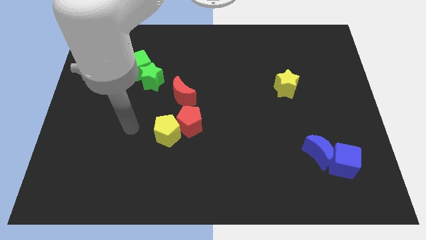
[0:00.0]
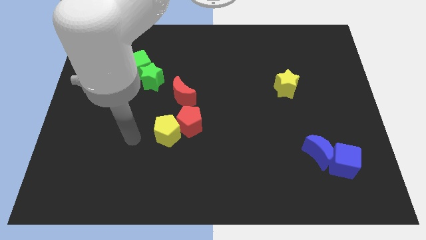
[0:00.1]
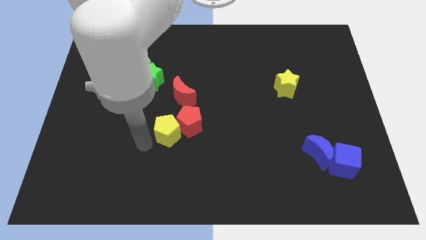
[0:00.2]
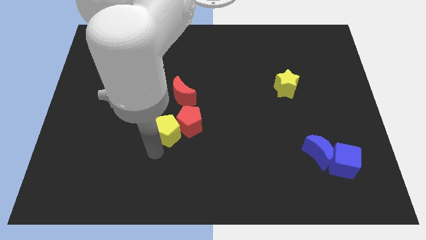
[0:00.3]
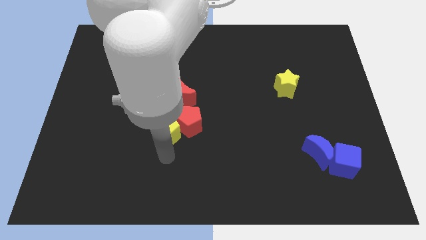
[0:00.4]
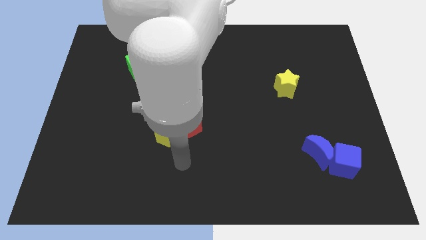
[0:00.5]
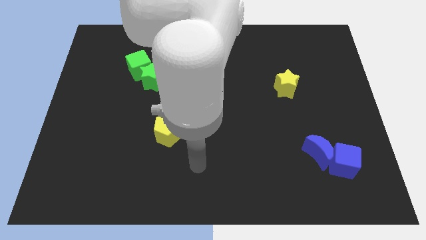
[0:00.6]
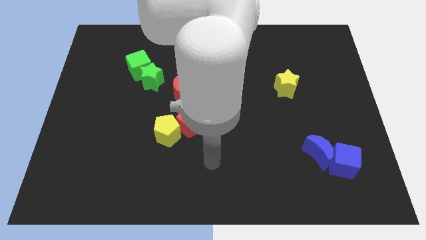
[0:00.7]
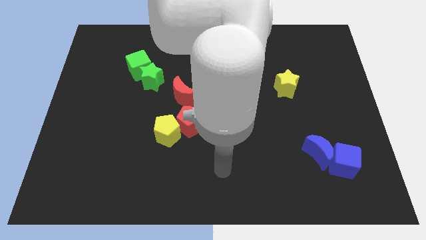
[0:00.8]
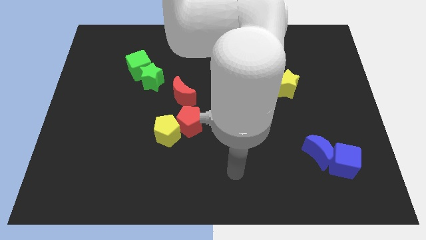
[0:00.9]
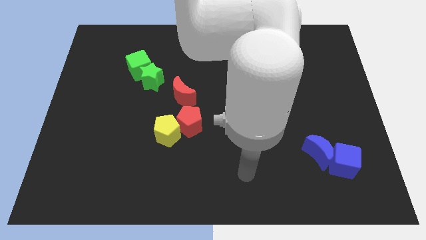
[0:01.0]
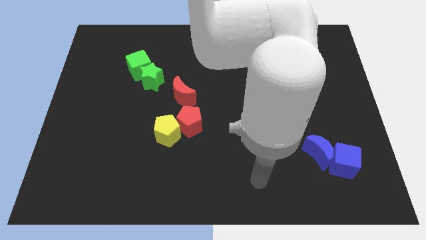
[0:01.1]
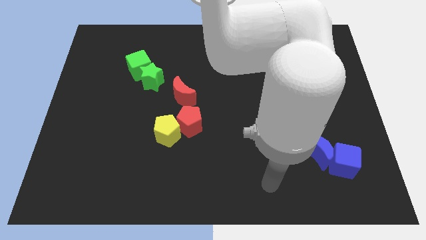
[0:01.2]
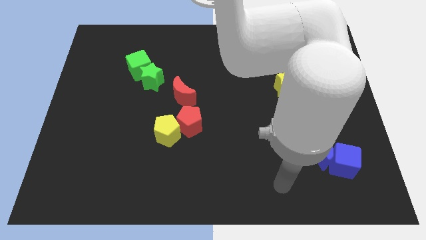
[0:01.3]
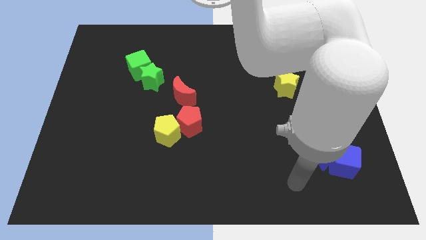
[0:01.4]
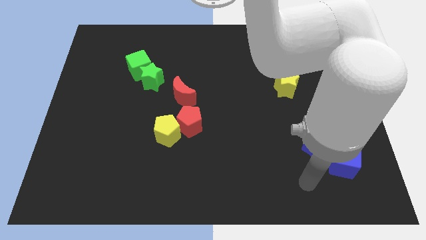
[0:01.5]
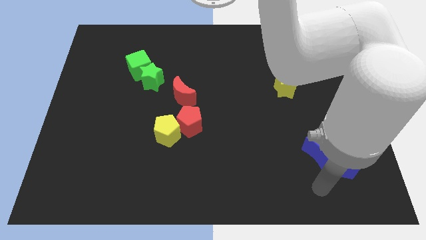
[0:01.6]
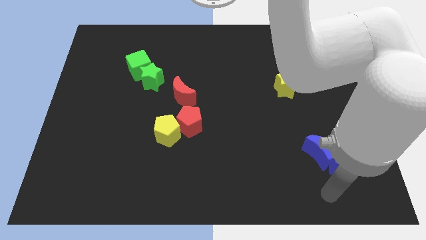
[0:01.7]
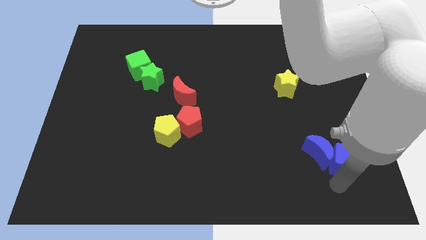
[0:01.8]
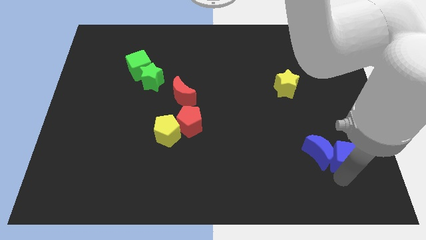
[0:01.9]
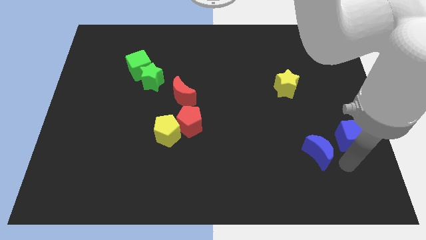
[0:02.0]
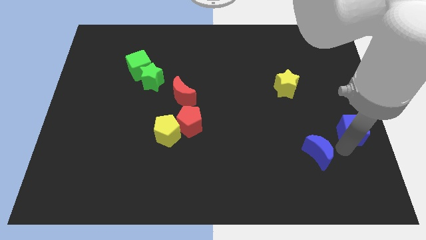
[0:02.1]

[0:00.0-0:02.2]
pull the blue moon apart from the blue cube

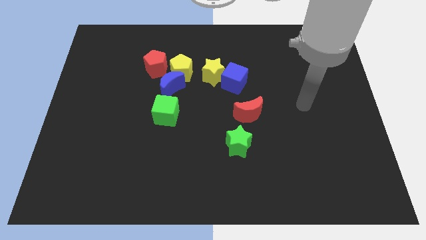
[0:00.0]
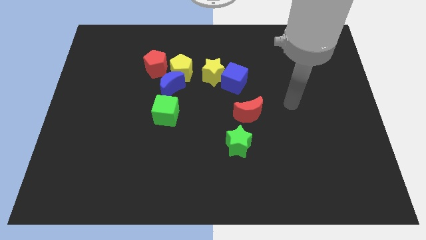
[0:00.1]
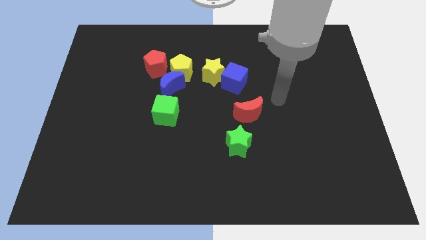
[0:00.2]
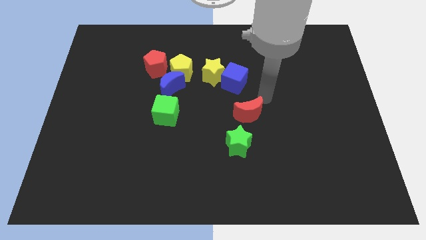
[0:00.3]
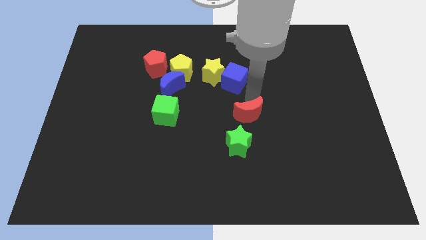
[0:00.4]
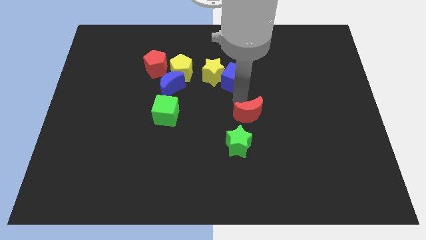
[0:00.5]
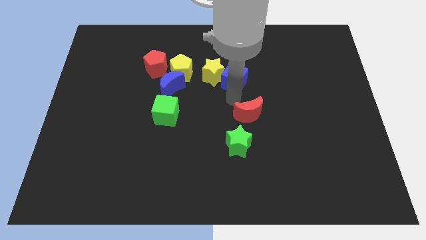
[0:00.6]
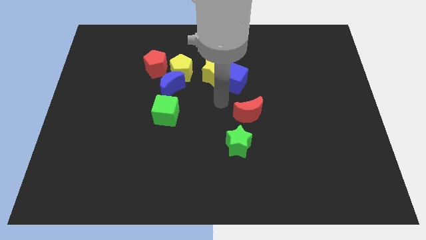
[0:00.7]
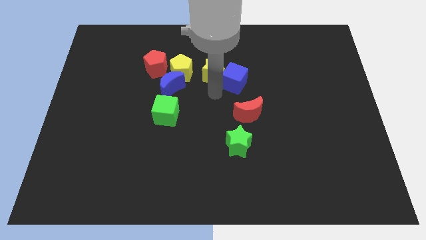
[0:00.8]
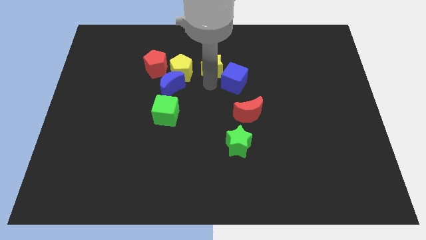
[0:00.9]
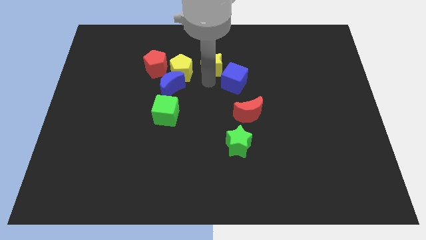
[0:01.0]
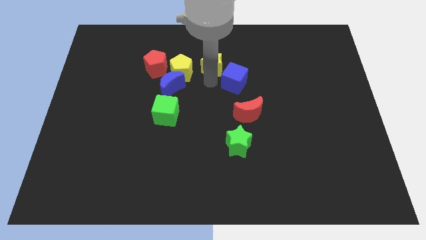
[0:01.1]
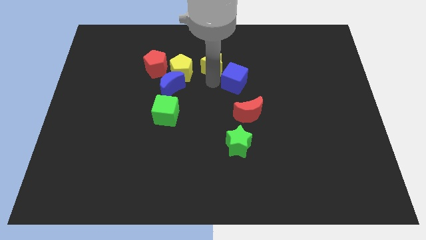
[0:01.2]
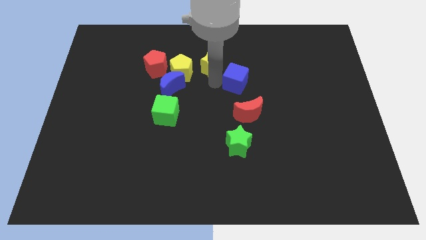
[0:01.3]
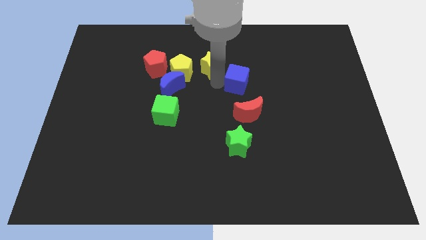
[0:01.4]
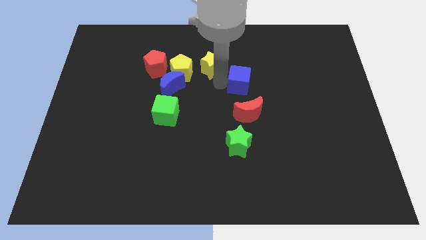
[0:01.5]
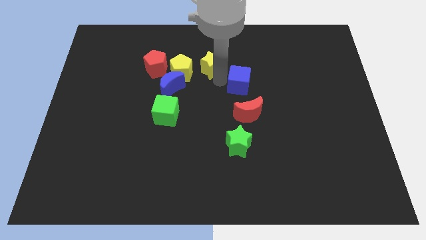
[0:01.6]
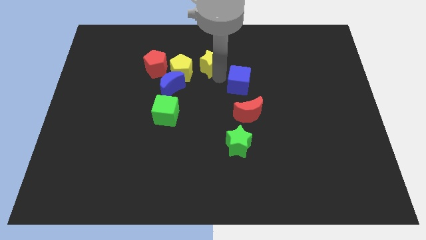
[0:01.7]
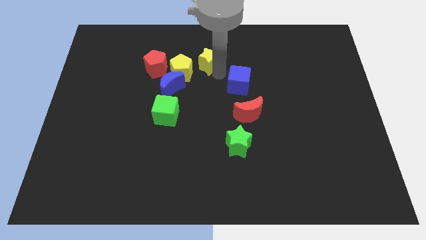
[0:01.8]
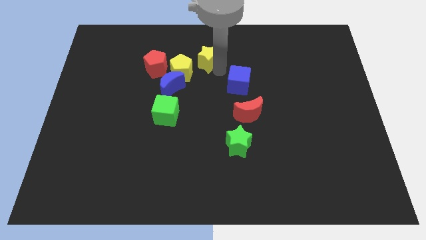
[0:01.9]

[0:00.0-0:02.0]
pull the blue cube apart from the yellow star

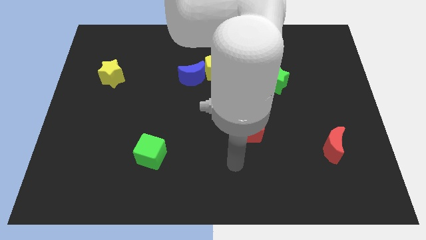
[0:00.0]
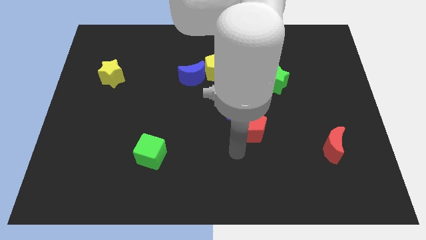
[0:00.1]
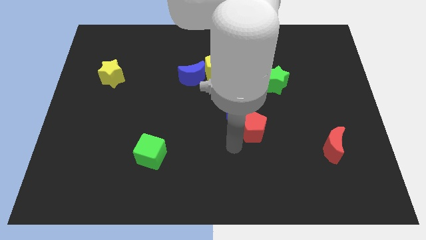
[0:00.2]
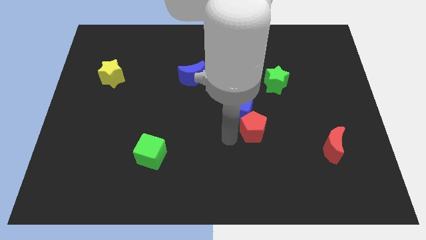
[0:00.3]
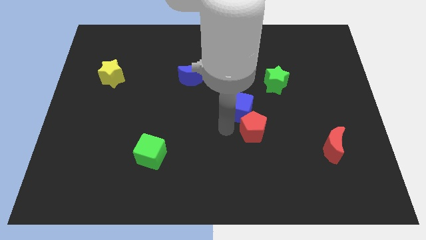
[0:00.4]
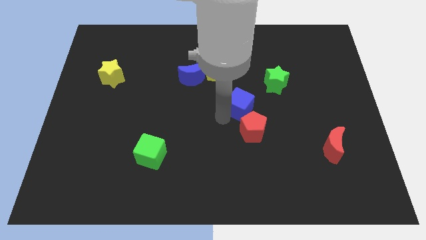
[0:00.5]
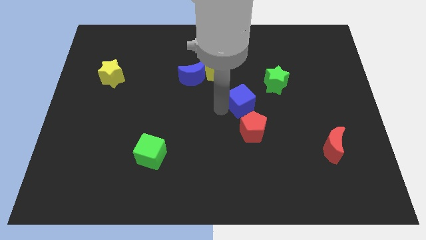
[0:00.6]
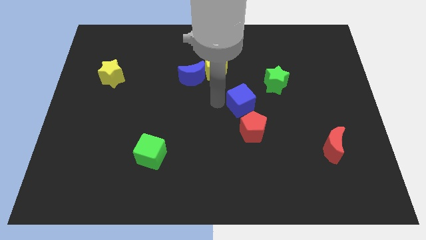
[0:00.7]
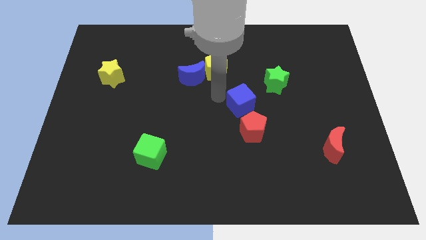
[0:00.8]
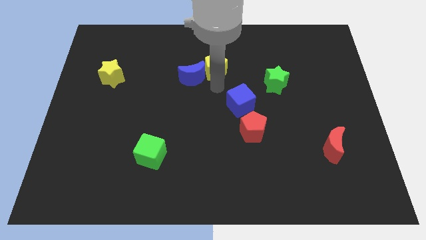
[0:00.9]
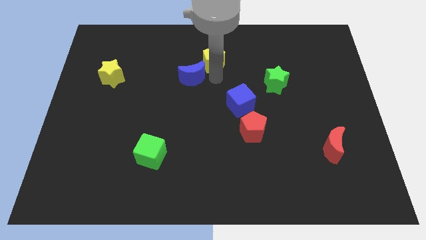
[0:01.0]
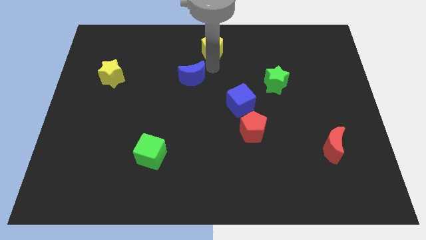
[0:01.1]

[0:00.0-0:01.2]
pull the blue moon apart from the yellow pentagon

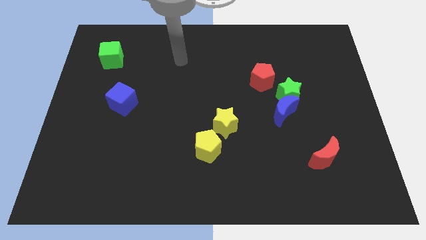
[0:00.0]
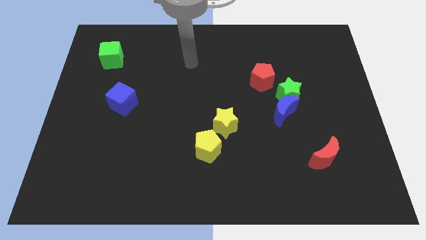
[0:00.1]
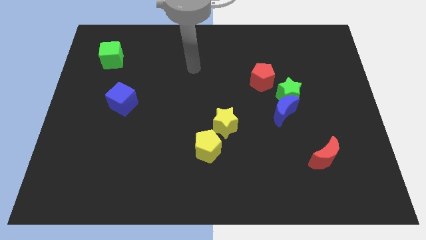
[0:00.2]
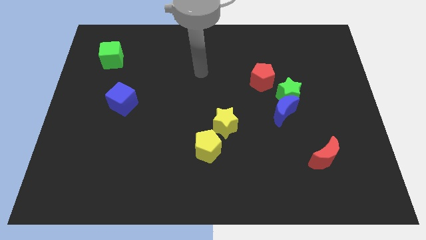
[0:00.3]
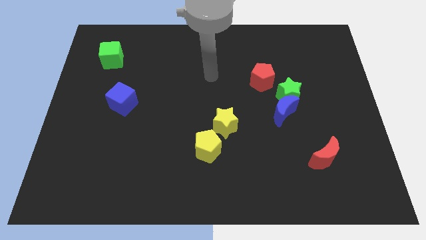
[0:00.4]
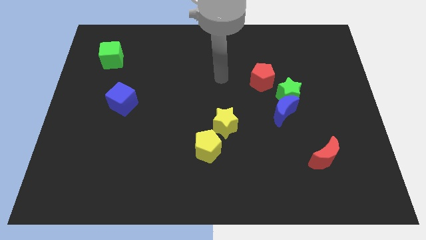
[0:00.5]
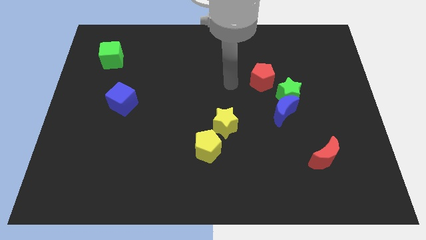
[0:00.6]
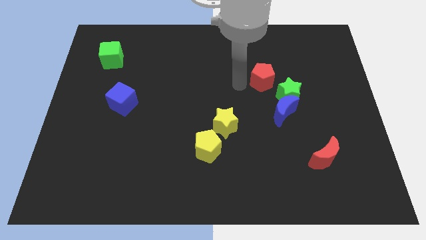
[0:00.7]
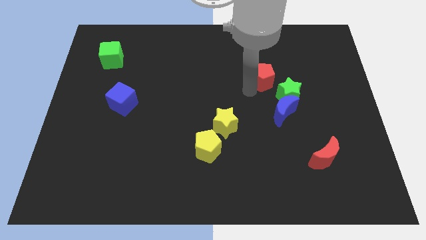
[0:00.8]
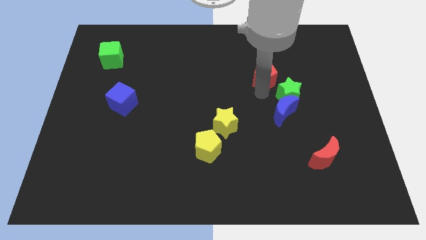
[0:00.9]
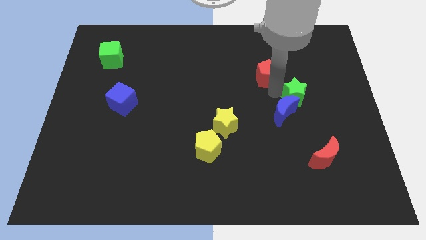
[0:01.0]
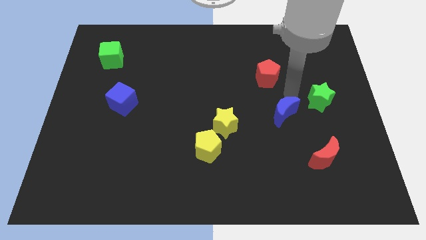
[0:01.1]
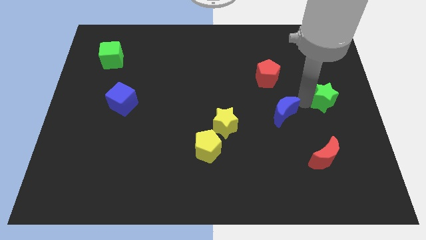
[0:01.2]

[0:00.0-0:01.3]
pull the blue moon apart from the green star

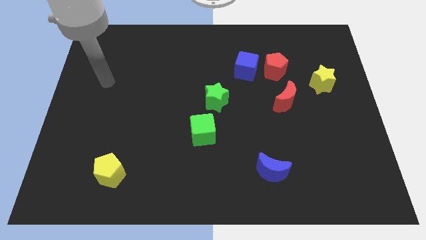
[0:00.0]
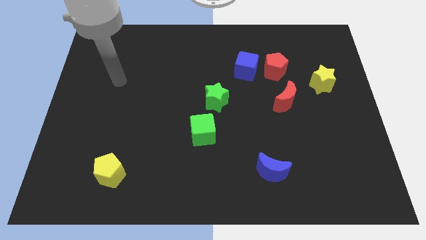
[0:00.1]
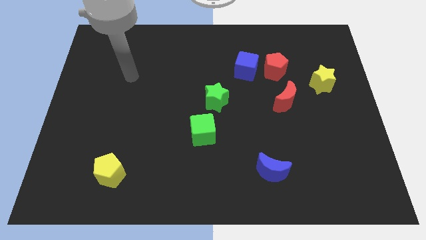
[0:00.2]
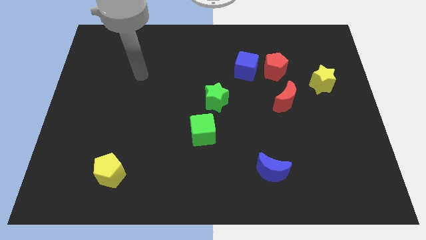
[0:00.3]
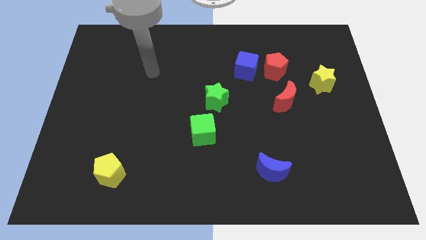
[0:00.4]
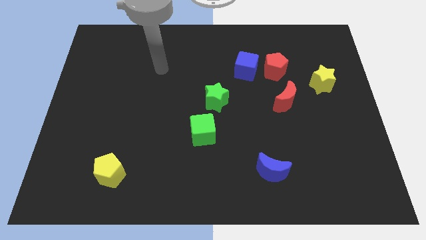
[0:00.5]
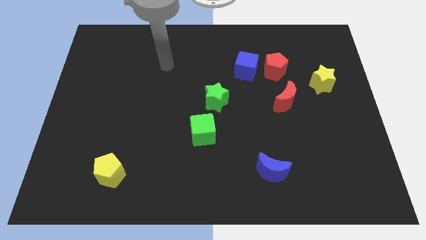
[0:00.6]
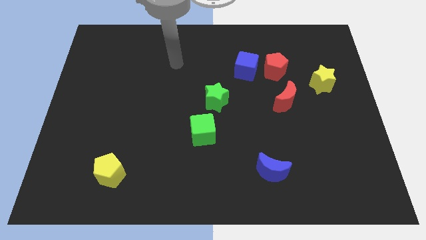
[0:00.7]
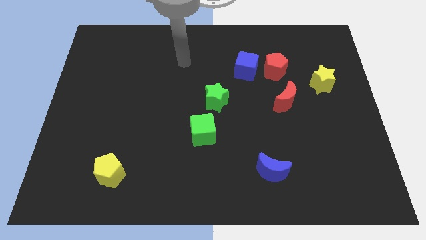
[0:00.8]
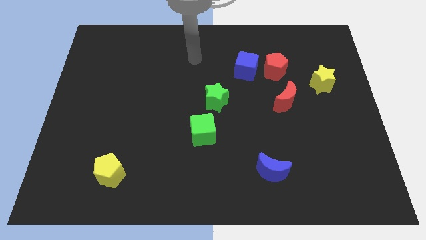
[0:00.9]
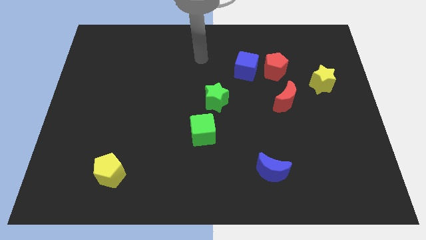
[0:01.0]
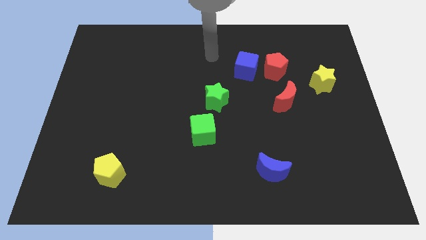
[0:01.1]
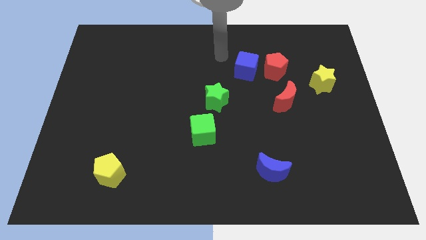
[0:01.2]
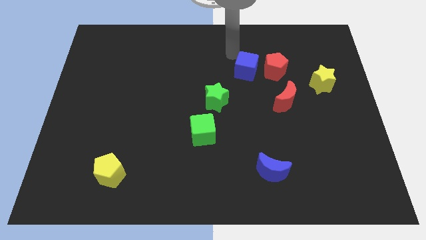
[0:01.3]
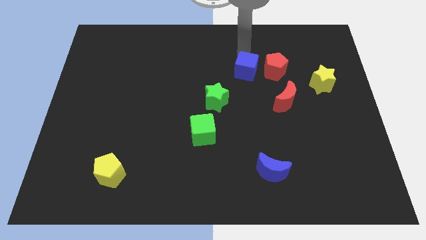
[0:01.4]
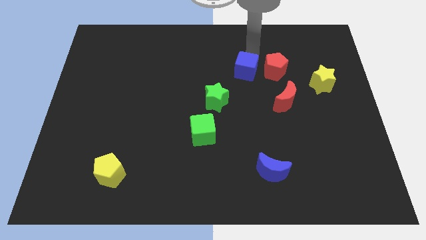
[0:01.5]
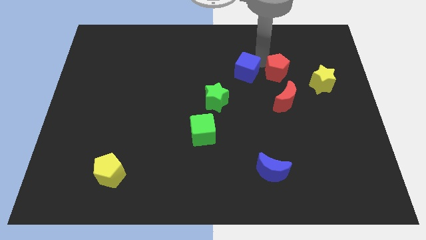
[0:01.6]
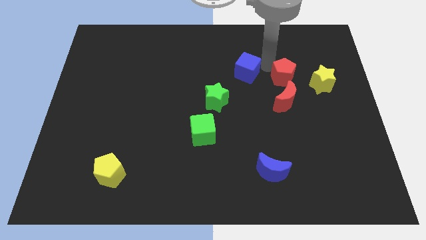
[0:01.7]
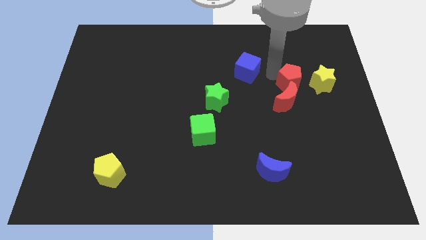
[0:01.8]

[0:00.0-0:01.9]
move the blue cube away from the red pentagon

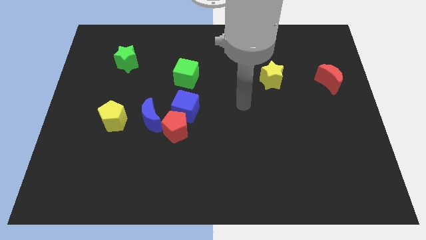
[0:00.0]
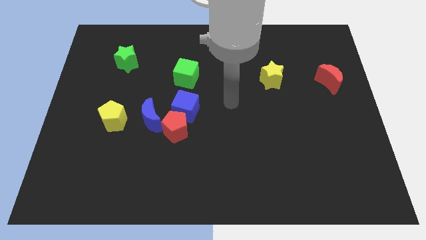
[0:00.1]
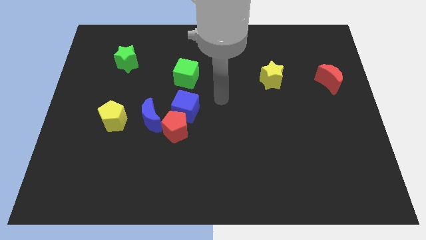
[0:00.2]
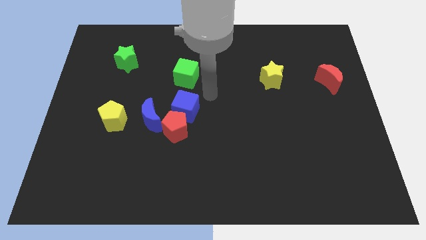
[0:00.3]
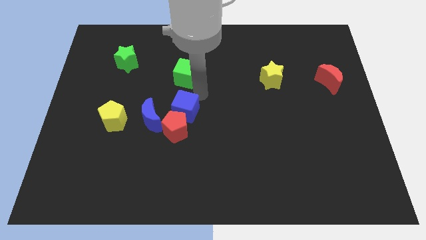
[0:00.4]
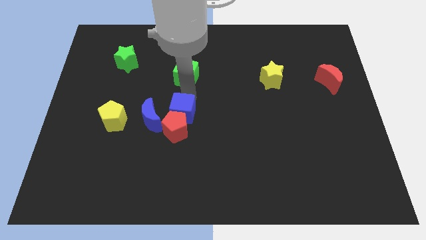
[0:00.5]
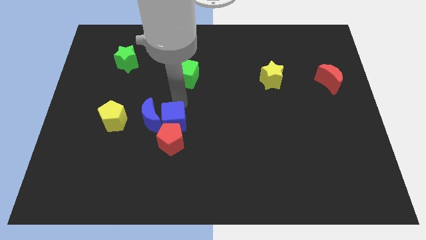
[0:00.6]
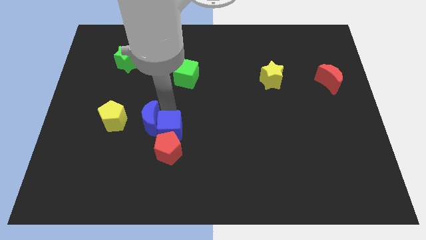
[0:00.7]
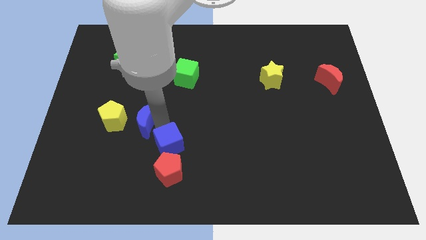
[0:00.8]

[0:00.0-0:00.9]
move the red pentagon away from the blue cube and blue moon
